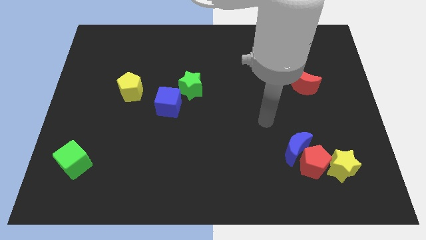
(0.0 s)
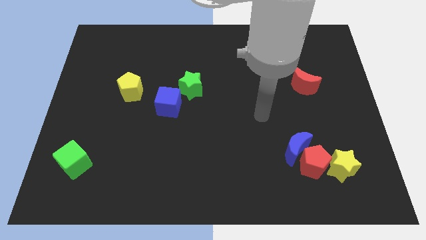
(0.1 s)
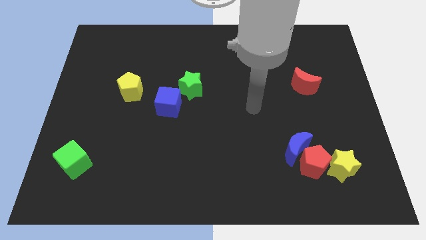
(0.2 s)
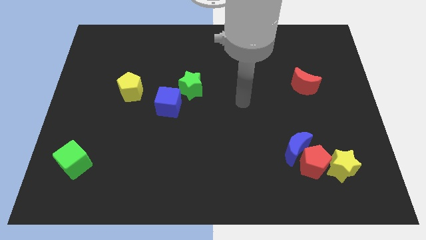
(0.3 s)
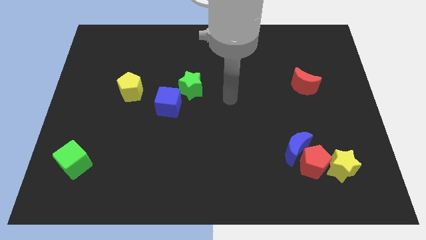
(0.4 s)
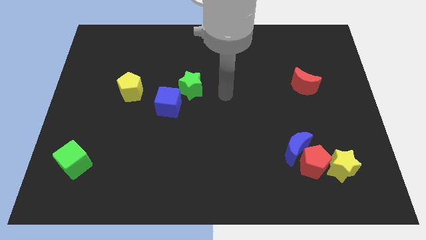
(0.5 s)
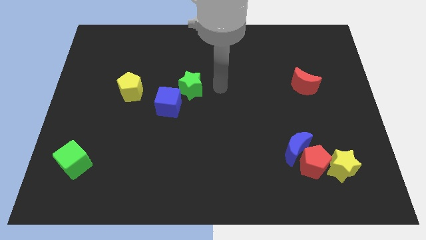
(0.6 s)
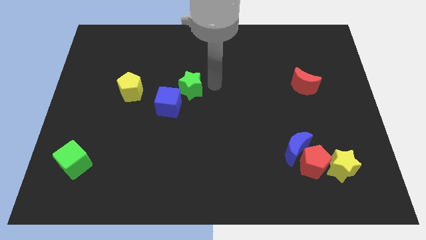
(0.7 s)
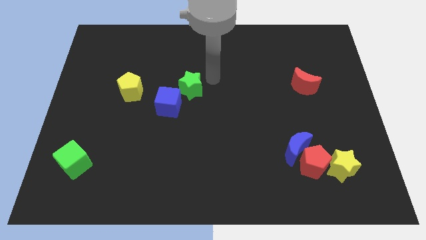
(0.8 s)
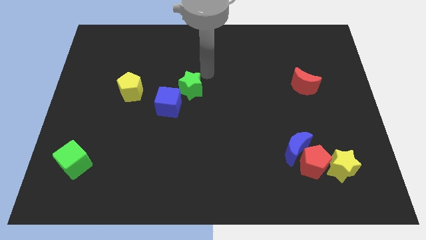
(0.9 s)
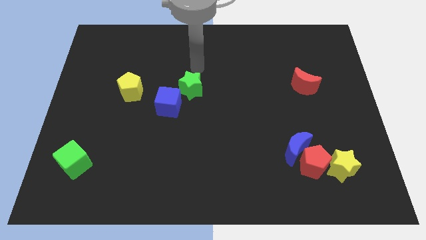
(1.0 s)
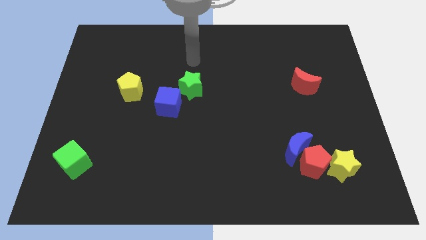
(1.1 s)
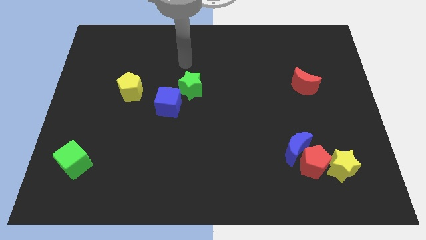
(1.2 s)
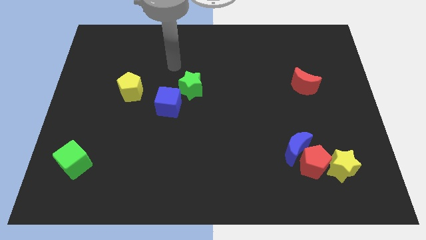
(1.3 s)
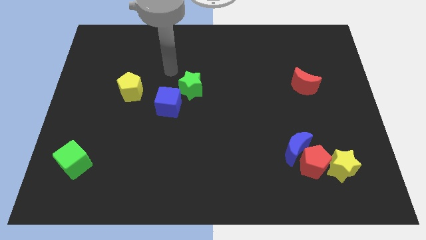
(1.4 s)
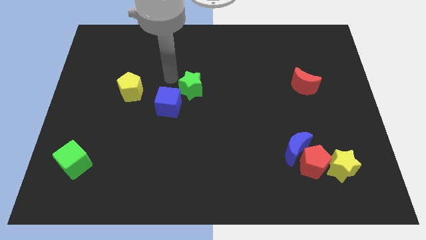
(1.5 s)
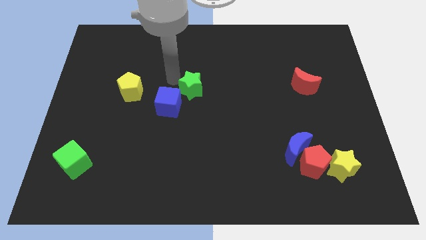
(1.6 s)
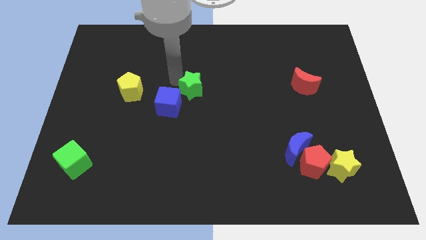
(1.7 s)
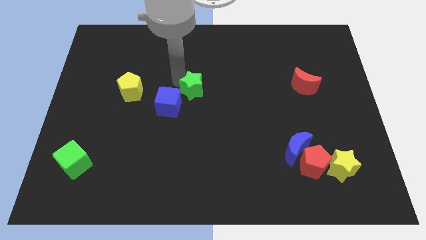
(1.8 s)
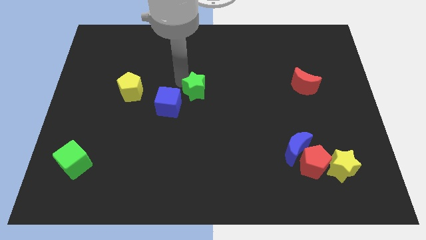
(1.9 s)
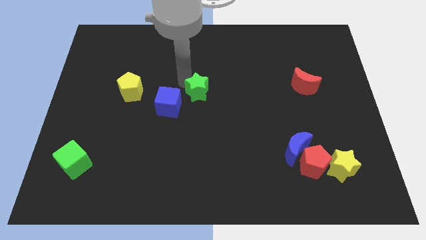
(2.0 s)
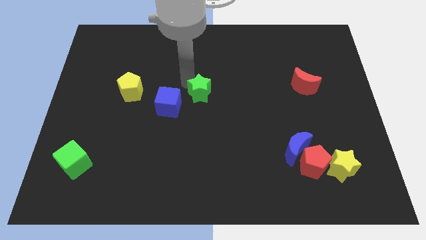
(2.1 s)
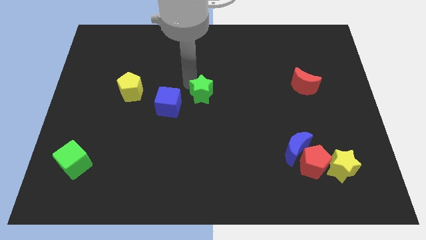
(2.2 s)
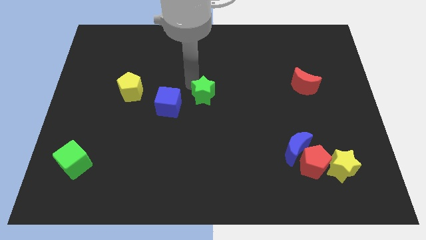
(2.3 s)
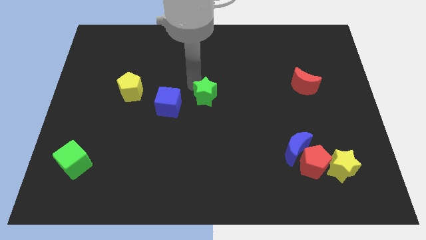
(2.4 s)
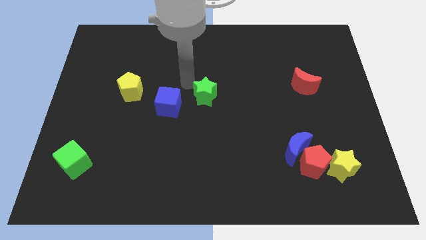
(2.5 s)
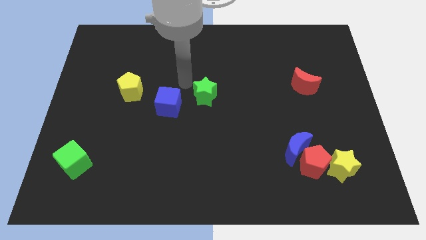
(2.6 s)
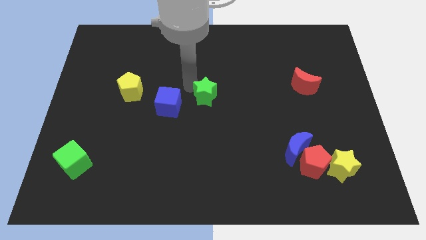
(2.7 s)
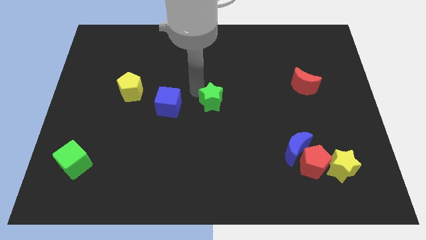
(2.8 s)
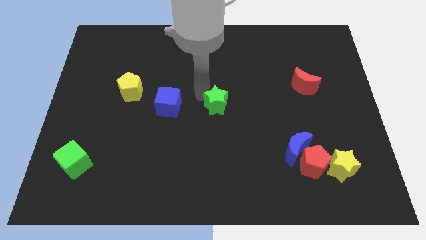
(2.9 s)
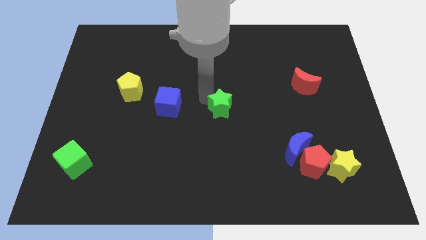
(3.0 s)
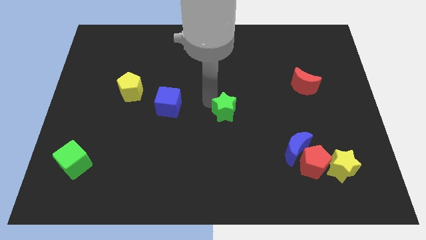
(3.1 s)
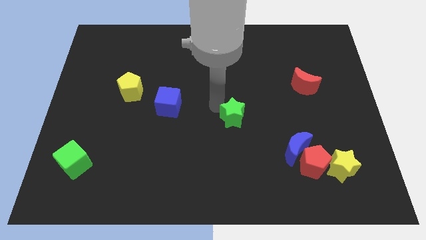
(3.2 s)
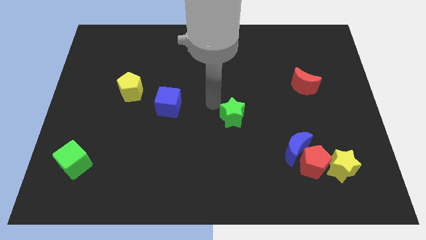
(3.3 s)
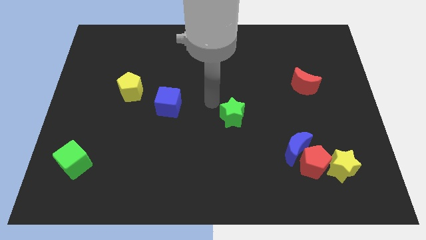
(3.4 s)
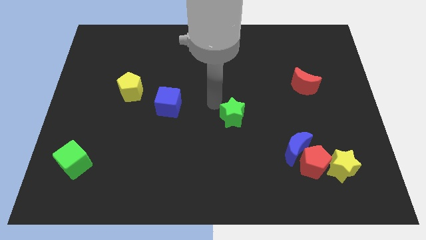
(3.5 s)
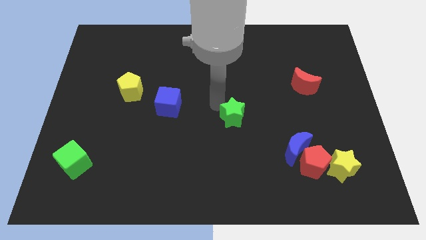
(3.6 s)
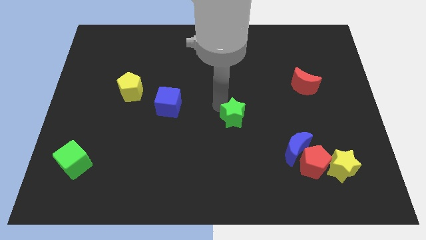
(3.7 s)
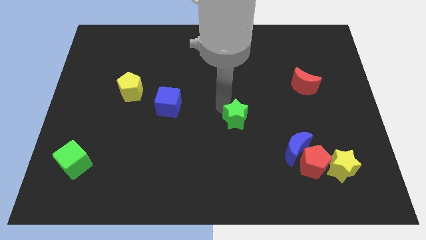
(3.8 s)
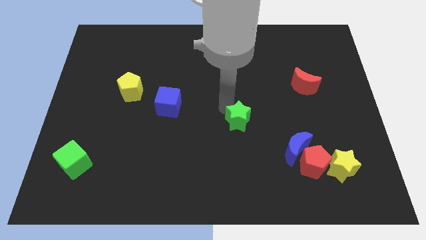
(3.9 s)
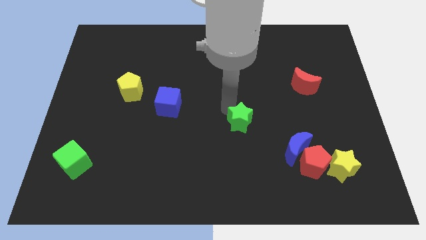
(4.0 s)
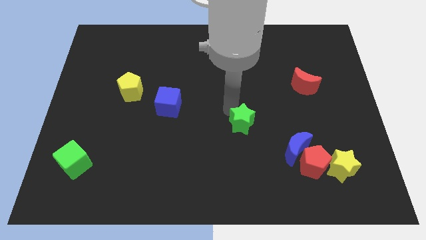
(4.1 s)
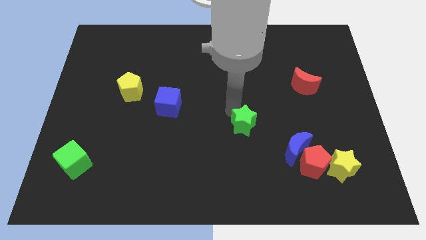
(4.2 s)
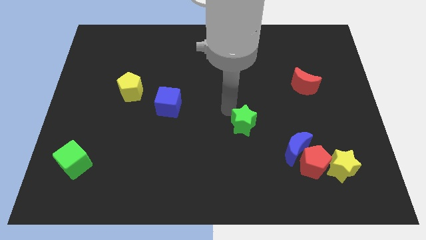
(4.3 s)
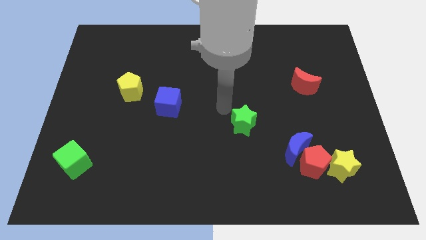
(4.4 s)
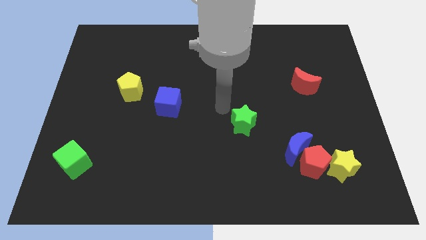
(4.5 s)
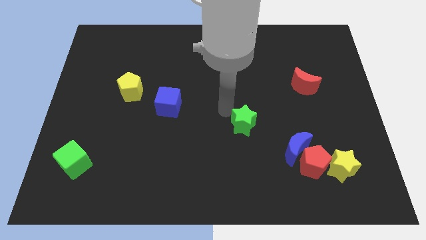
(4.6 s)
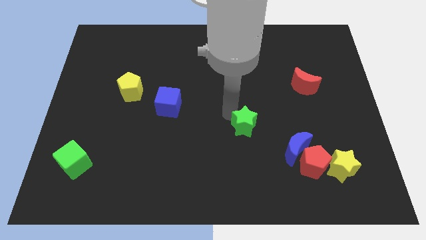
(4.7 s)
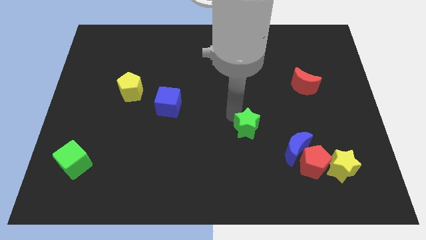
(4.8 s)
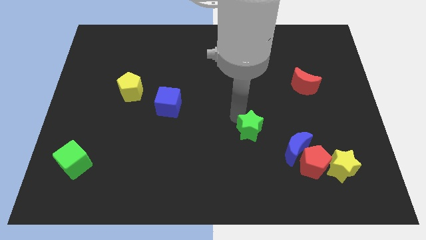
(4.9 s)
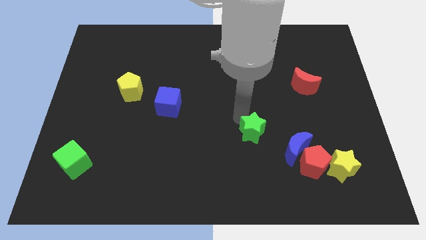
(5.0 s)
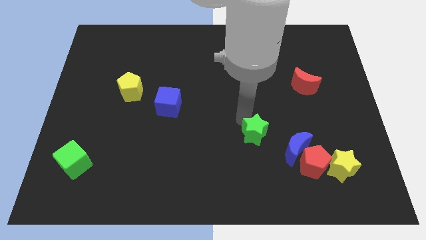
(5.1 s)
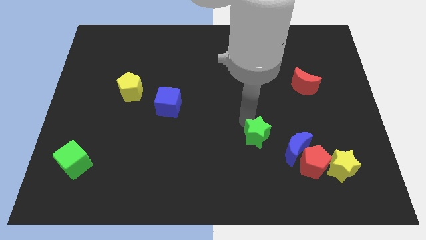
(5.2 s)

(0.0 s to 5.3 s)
slide the green star downwards and right

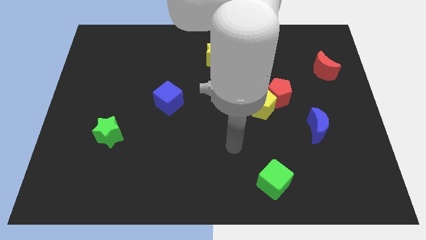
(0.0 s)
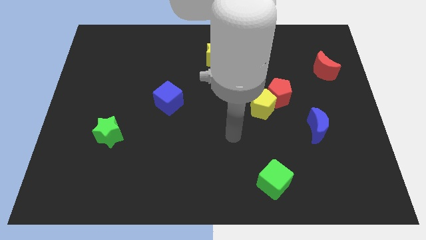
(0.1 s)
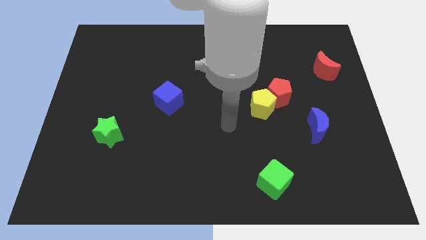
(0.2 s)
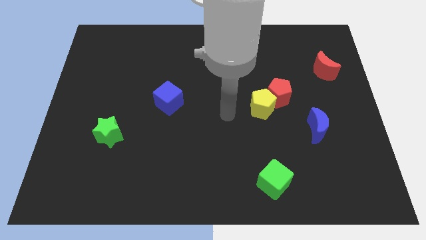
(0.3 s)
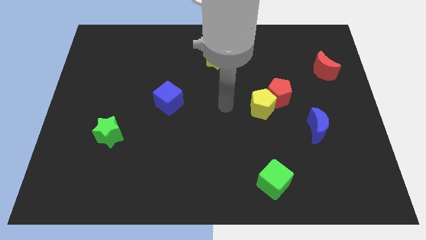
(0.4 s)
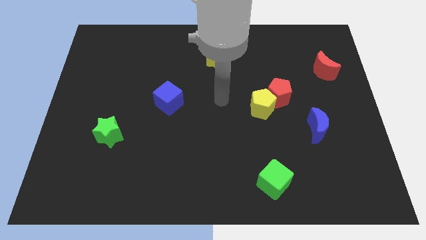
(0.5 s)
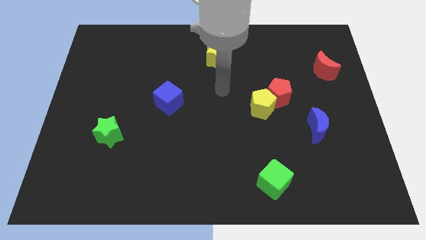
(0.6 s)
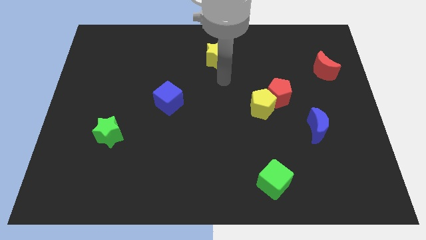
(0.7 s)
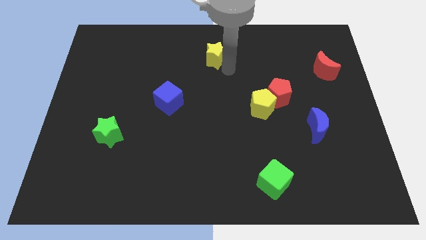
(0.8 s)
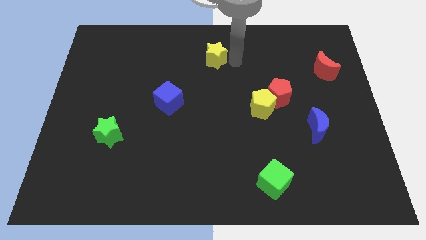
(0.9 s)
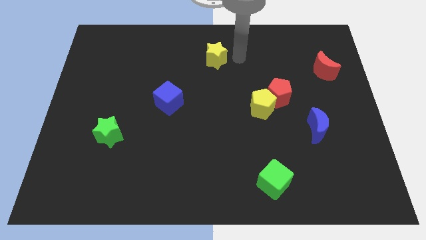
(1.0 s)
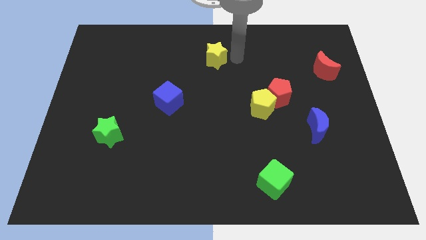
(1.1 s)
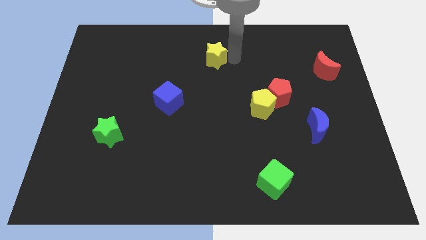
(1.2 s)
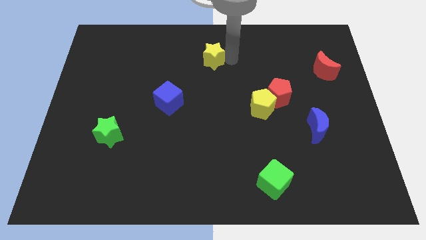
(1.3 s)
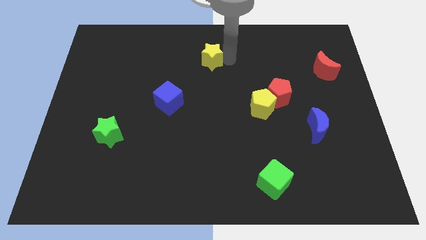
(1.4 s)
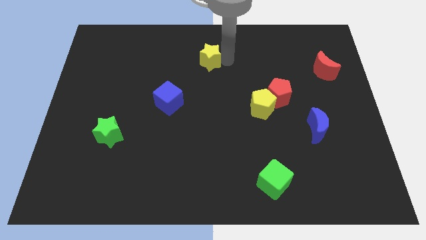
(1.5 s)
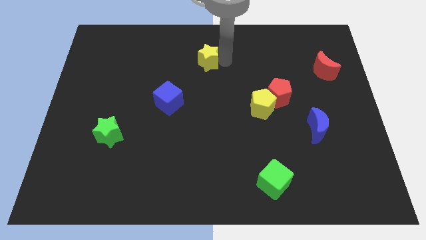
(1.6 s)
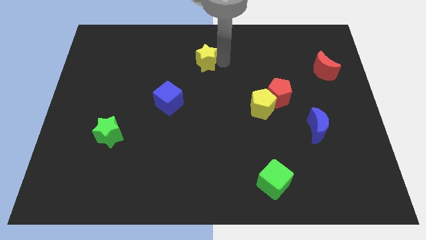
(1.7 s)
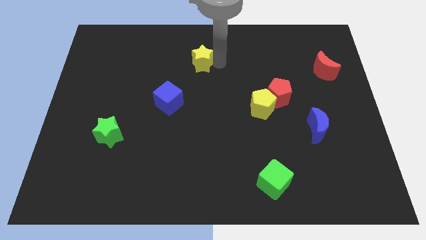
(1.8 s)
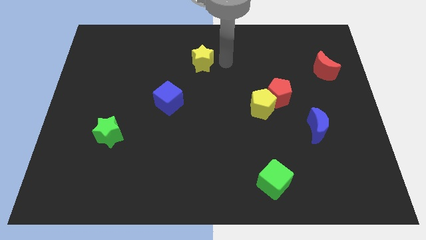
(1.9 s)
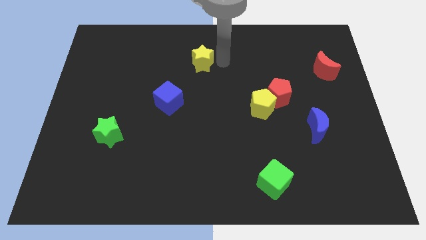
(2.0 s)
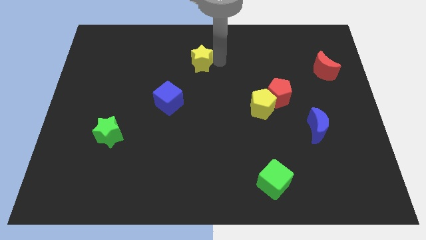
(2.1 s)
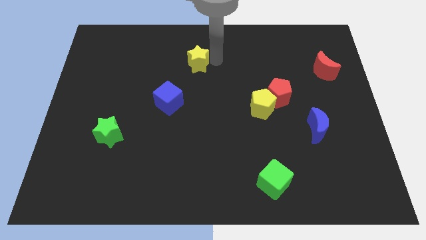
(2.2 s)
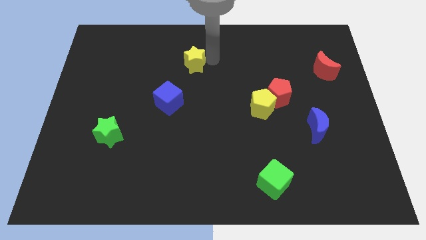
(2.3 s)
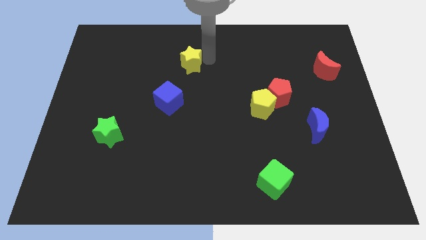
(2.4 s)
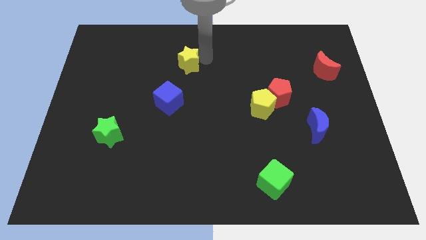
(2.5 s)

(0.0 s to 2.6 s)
slightly push the yellow star left

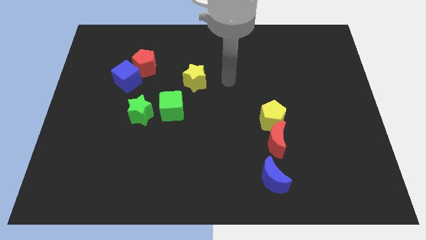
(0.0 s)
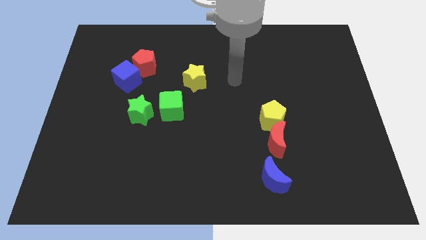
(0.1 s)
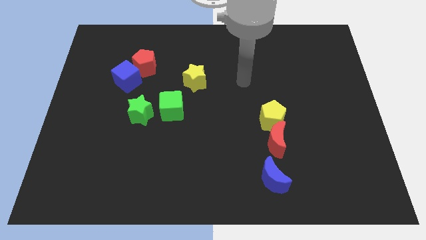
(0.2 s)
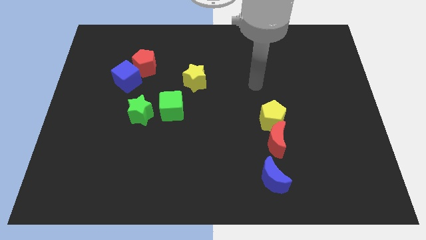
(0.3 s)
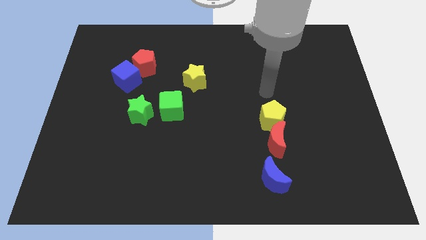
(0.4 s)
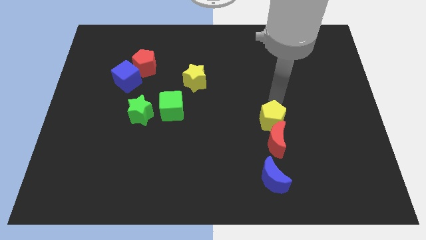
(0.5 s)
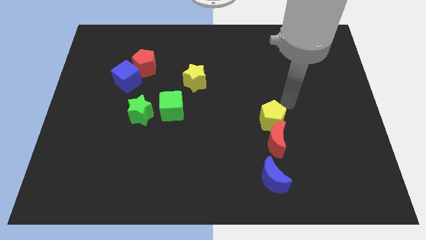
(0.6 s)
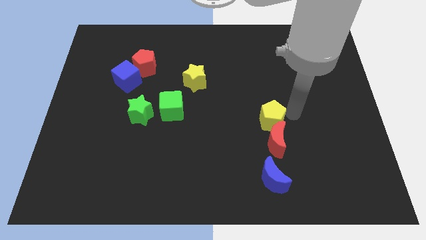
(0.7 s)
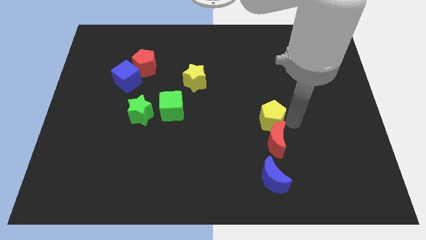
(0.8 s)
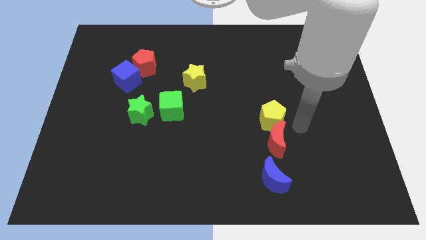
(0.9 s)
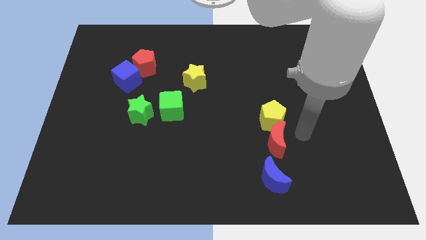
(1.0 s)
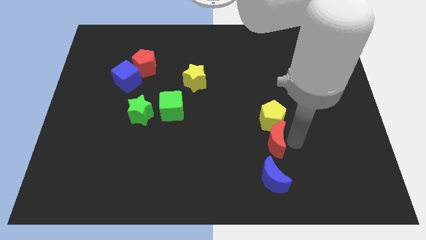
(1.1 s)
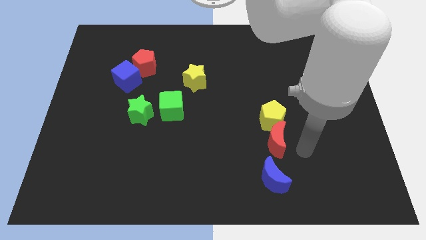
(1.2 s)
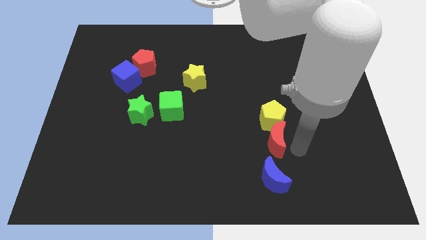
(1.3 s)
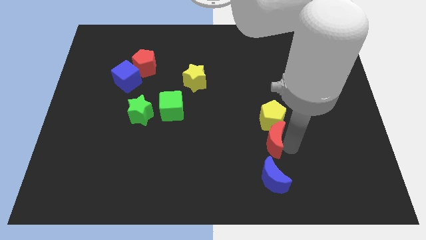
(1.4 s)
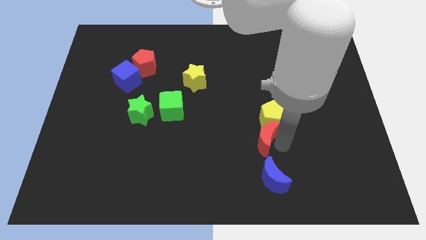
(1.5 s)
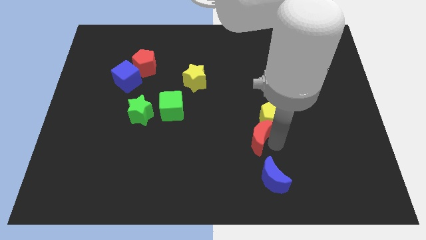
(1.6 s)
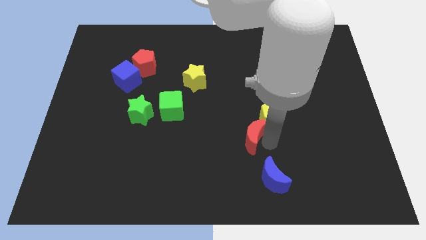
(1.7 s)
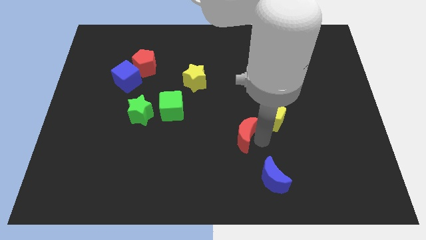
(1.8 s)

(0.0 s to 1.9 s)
move the red moon to the left somewhat
